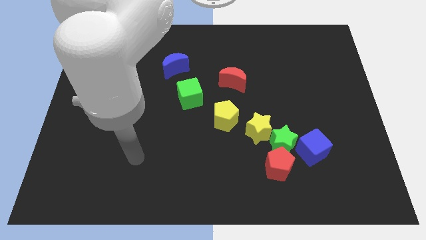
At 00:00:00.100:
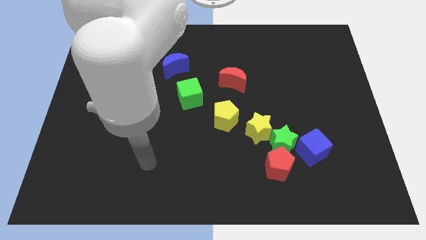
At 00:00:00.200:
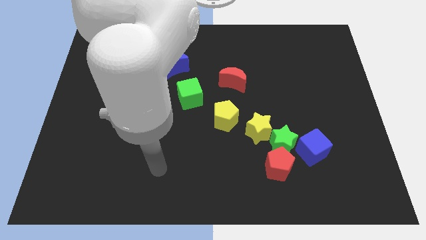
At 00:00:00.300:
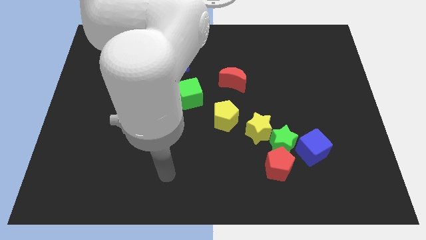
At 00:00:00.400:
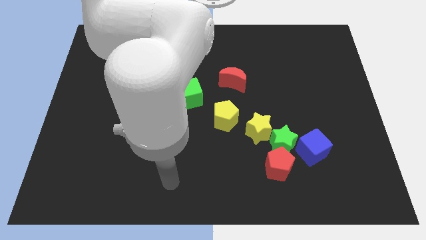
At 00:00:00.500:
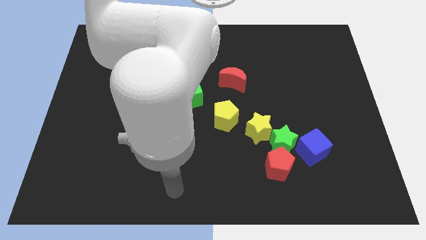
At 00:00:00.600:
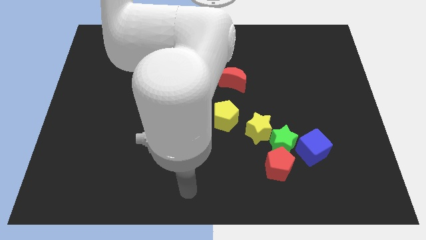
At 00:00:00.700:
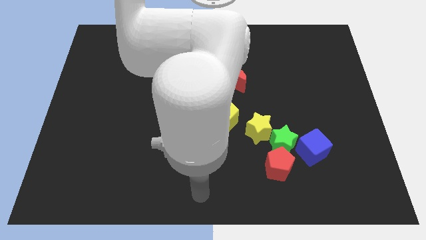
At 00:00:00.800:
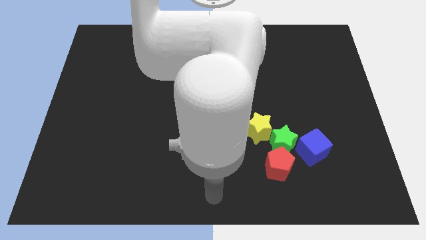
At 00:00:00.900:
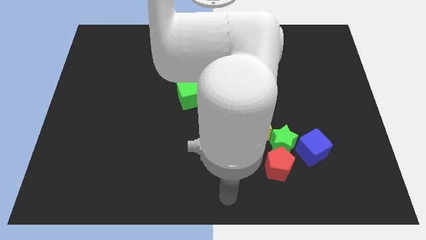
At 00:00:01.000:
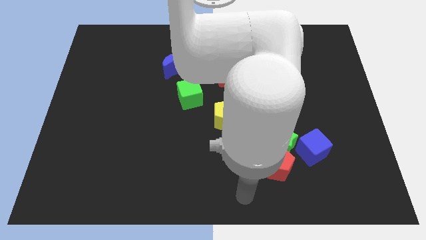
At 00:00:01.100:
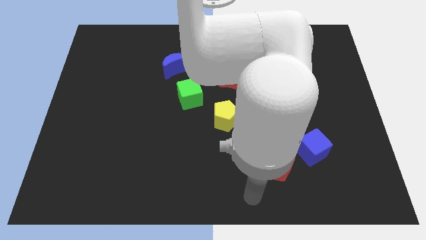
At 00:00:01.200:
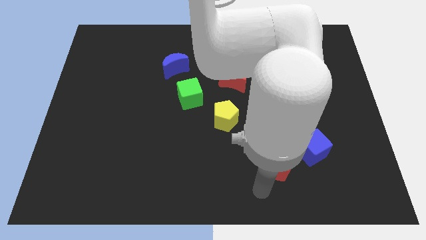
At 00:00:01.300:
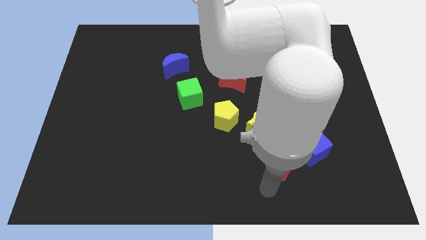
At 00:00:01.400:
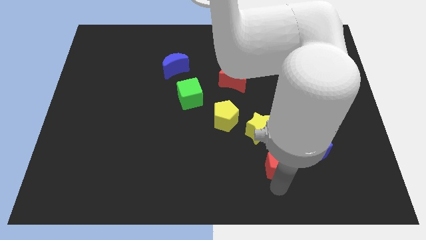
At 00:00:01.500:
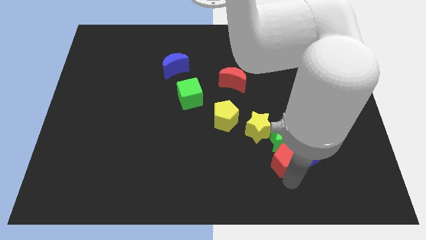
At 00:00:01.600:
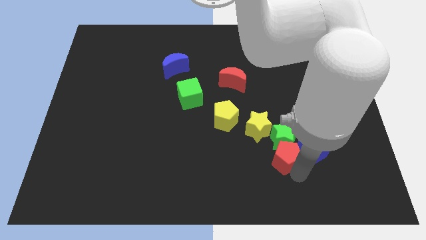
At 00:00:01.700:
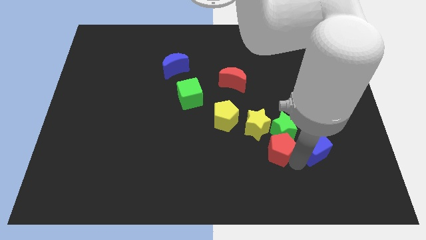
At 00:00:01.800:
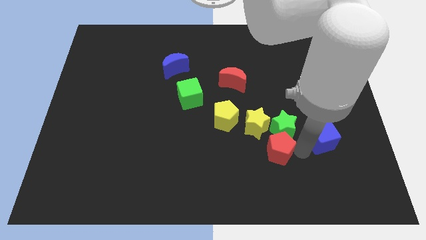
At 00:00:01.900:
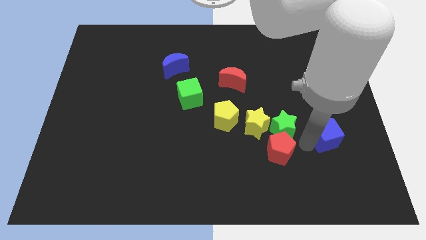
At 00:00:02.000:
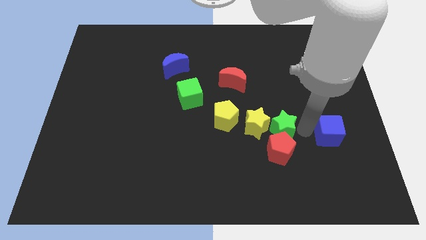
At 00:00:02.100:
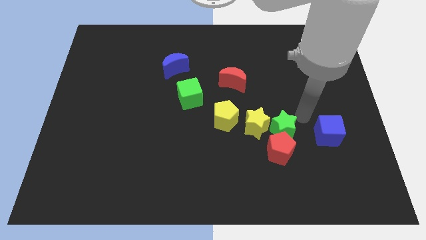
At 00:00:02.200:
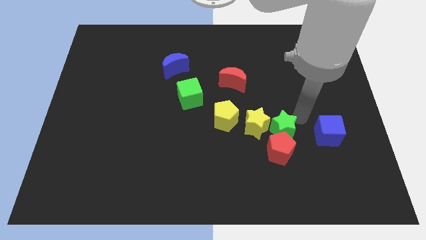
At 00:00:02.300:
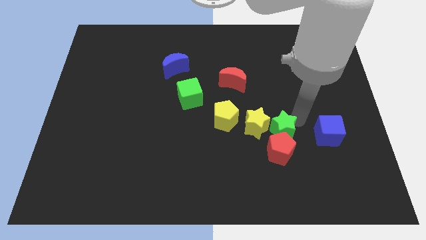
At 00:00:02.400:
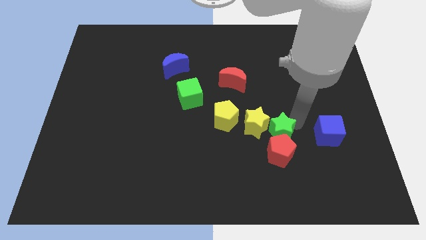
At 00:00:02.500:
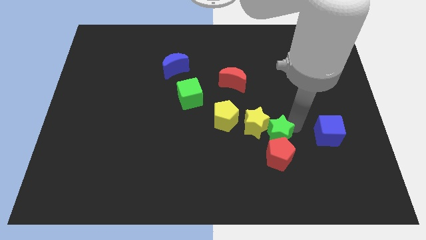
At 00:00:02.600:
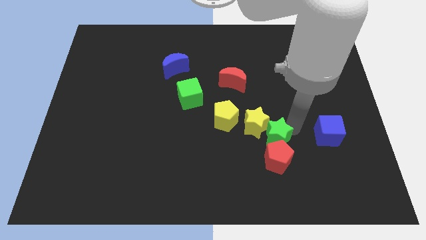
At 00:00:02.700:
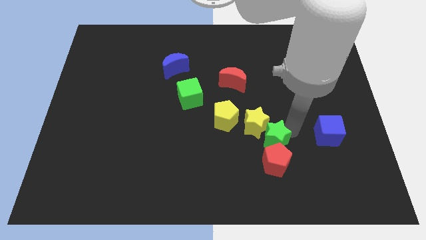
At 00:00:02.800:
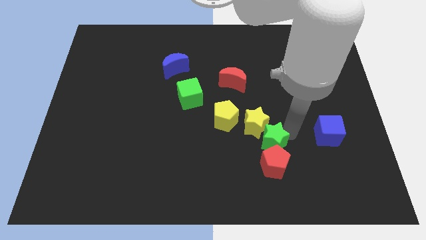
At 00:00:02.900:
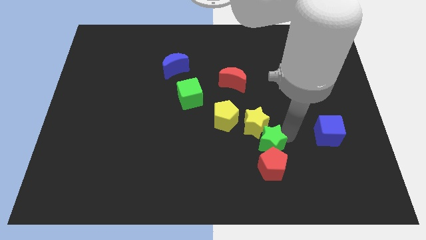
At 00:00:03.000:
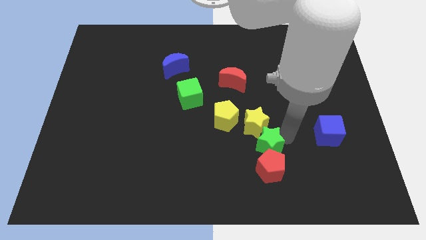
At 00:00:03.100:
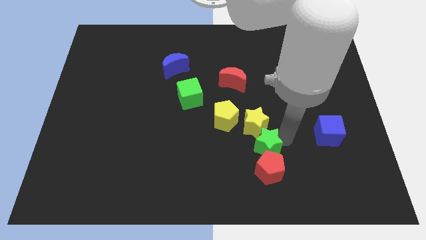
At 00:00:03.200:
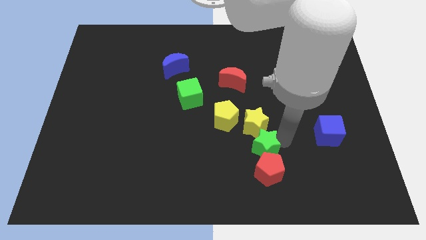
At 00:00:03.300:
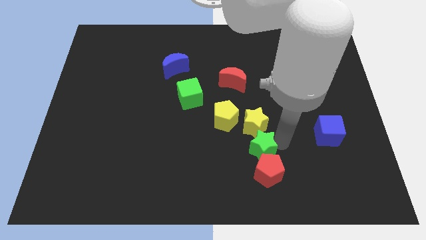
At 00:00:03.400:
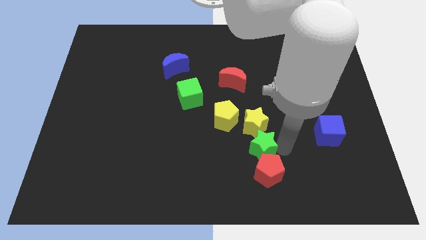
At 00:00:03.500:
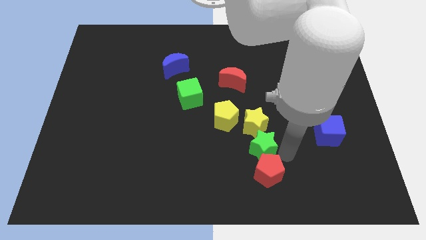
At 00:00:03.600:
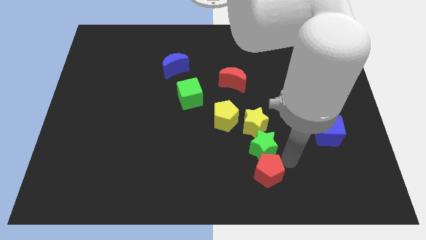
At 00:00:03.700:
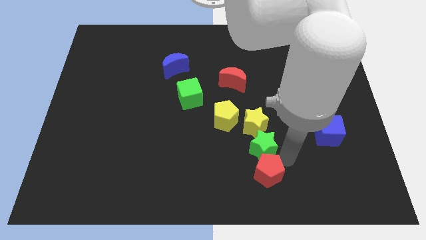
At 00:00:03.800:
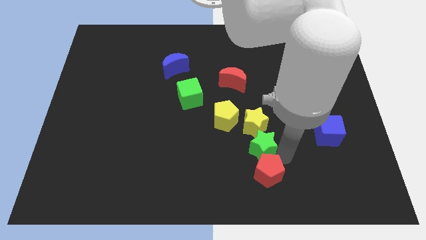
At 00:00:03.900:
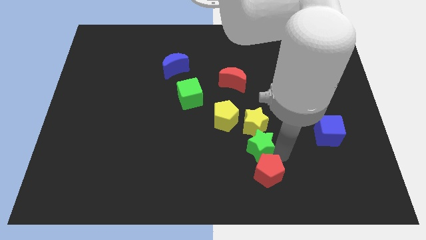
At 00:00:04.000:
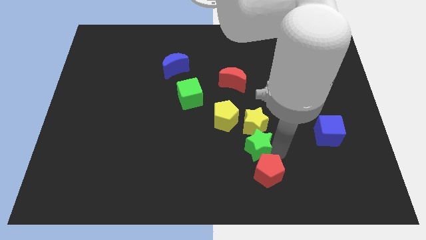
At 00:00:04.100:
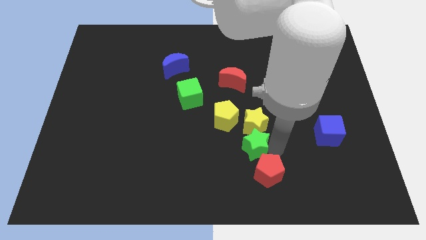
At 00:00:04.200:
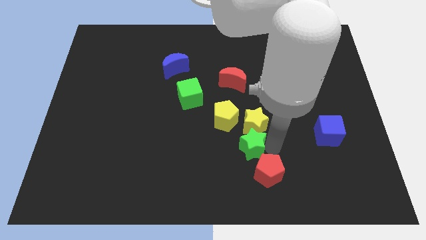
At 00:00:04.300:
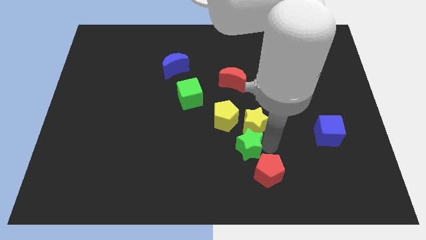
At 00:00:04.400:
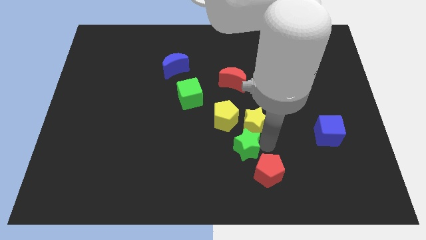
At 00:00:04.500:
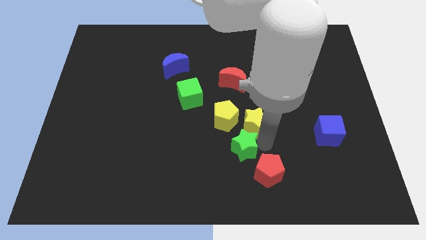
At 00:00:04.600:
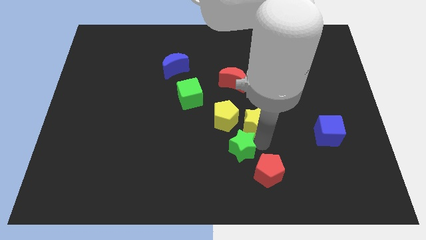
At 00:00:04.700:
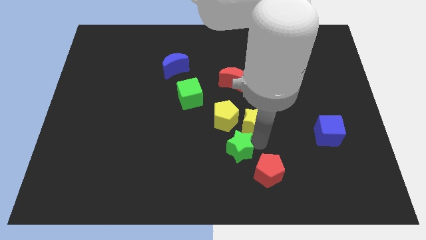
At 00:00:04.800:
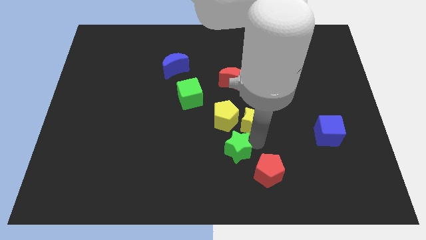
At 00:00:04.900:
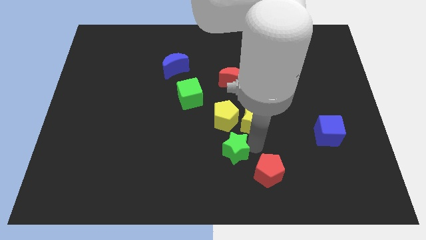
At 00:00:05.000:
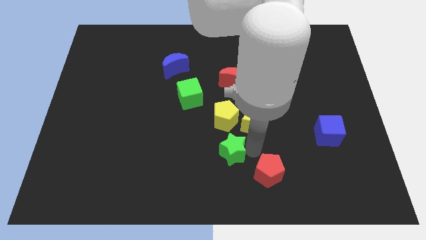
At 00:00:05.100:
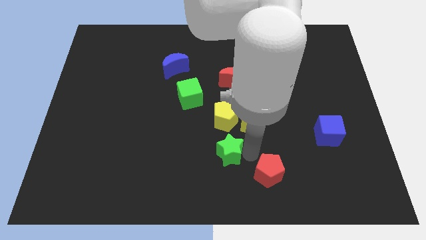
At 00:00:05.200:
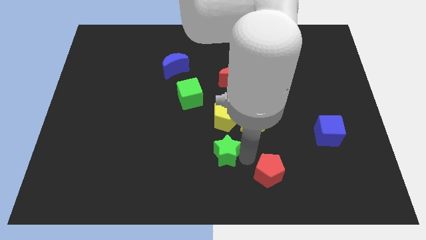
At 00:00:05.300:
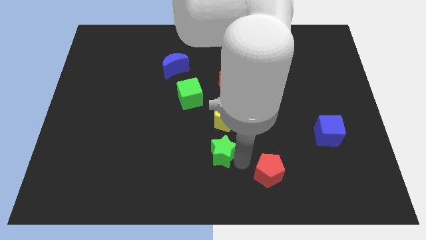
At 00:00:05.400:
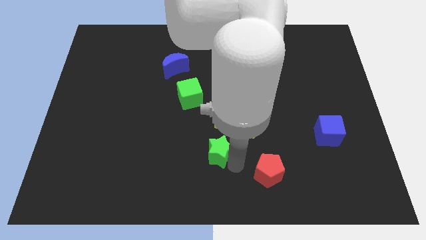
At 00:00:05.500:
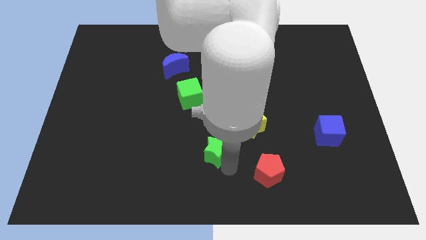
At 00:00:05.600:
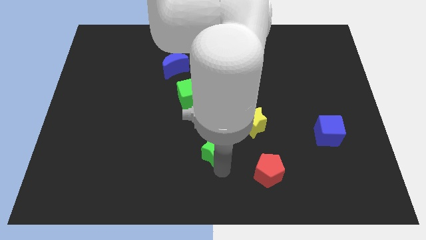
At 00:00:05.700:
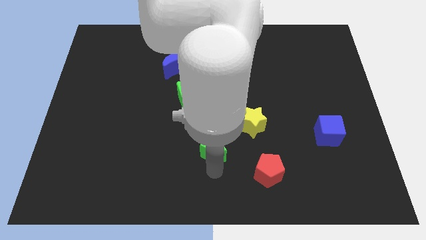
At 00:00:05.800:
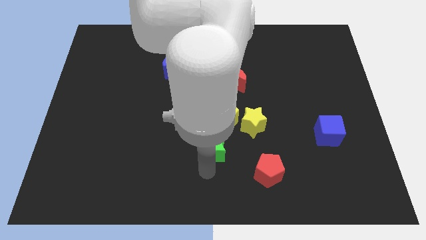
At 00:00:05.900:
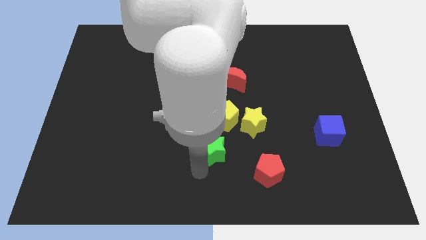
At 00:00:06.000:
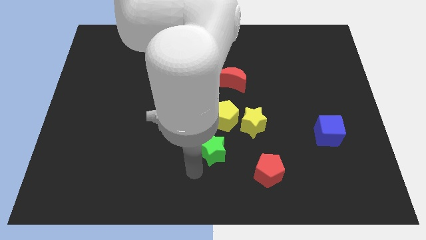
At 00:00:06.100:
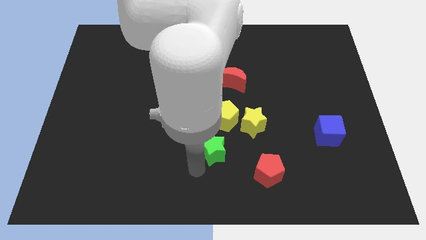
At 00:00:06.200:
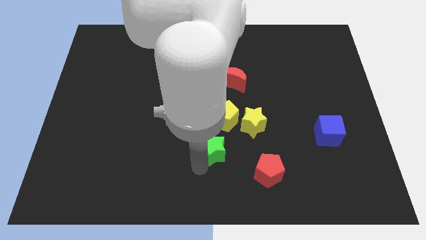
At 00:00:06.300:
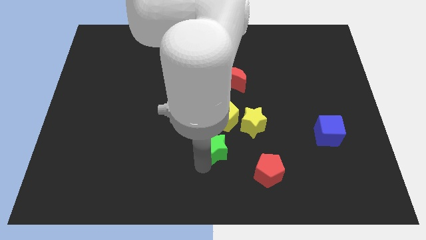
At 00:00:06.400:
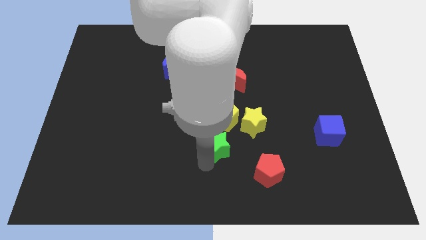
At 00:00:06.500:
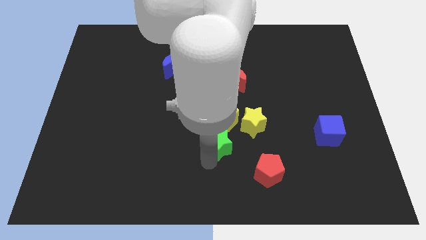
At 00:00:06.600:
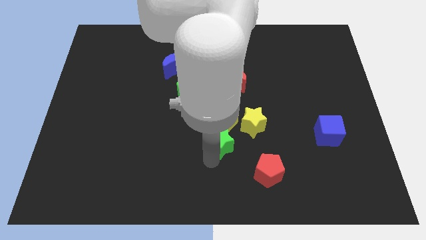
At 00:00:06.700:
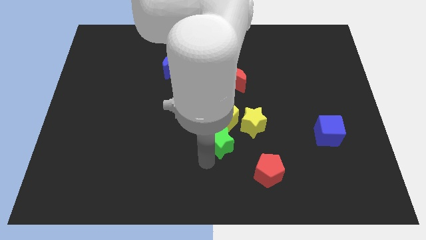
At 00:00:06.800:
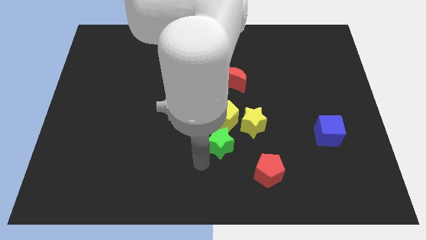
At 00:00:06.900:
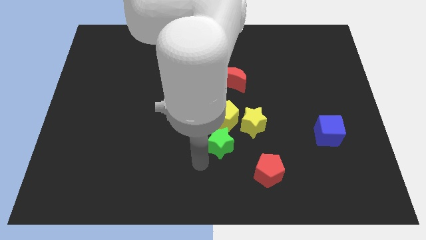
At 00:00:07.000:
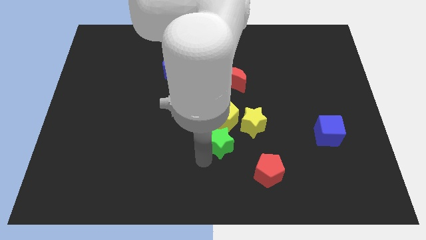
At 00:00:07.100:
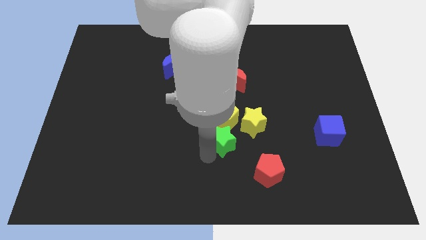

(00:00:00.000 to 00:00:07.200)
push the green star next to the yellow pentagon

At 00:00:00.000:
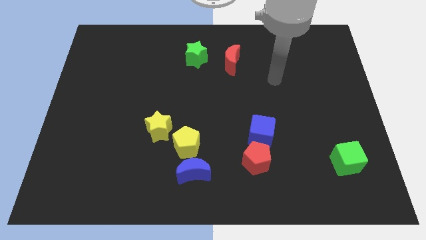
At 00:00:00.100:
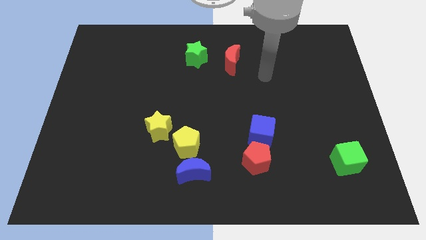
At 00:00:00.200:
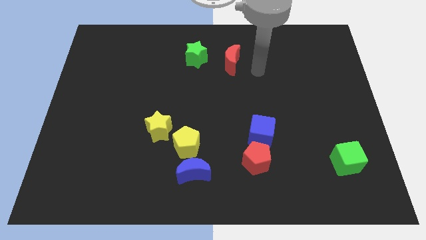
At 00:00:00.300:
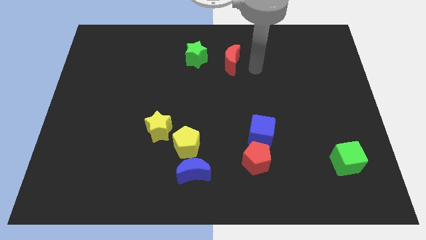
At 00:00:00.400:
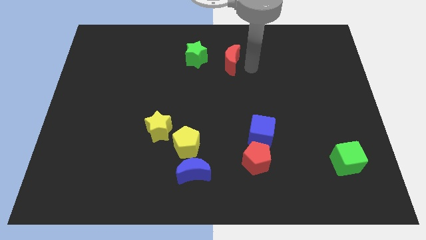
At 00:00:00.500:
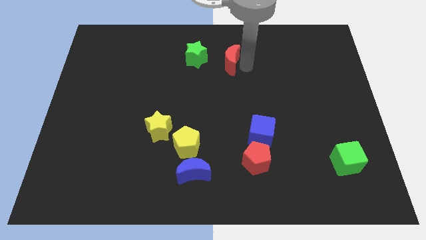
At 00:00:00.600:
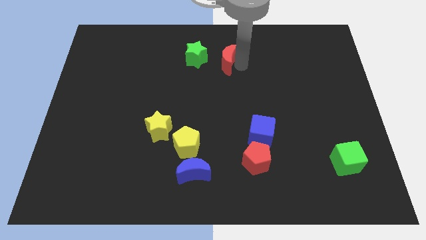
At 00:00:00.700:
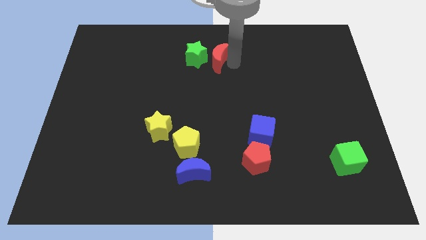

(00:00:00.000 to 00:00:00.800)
slide the red moon towards the green star
